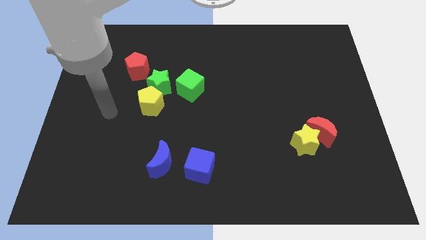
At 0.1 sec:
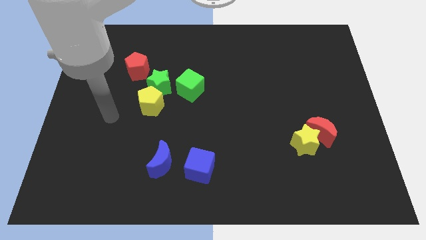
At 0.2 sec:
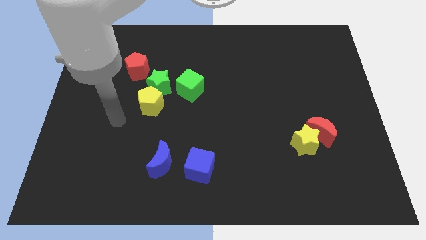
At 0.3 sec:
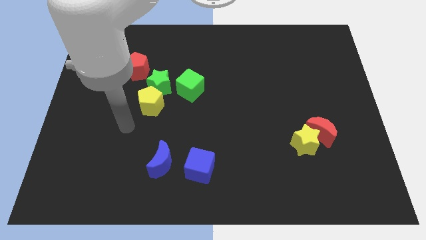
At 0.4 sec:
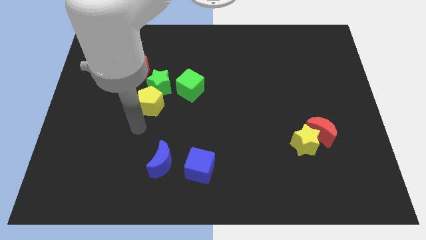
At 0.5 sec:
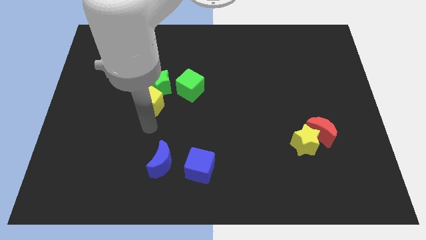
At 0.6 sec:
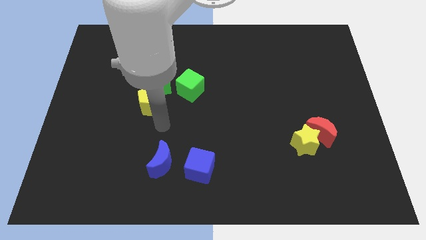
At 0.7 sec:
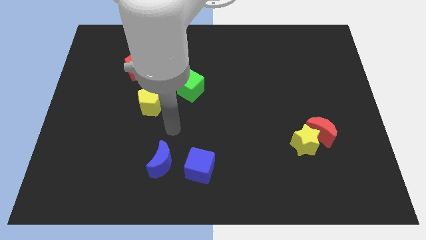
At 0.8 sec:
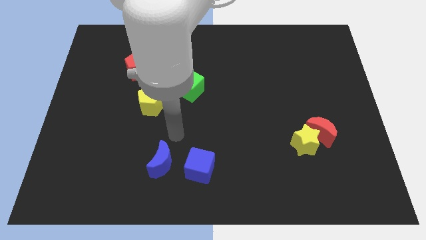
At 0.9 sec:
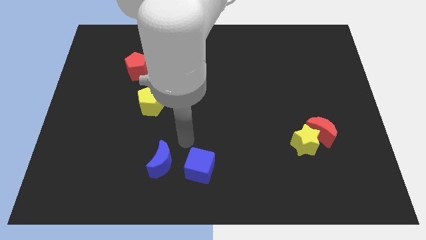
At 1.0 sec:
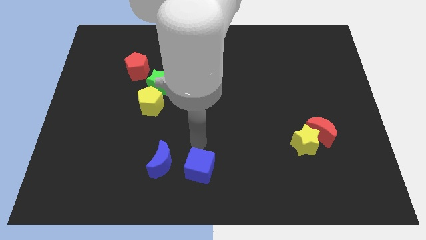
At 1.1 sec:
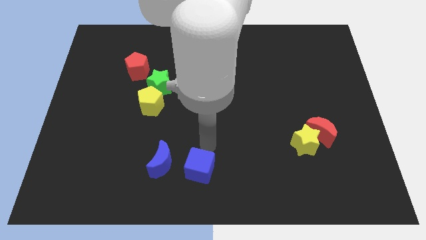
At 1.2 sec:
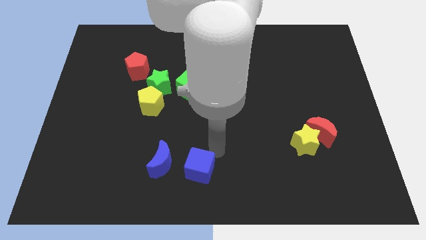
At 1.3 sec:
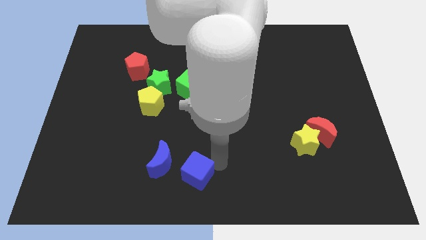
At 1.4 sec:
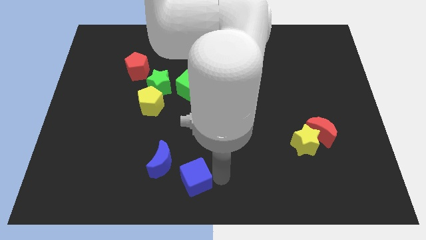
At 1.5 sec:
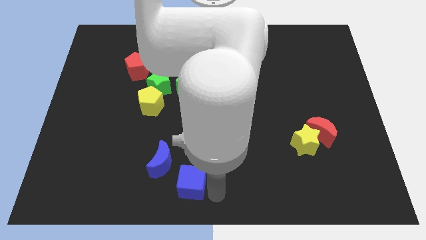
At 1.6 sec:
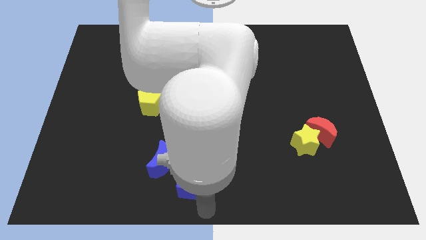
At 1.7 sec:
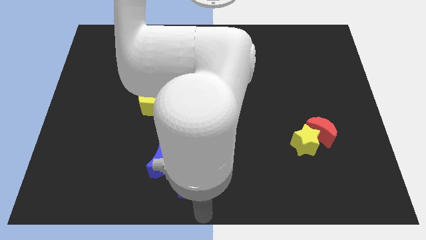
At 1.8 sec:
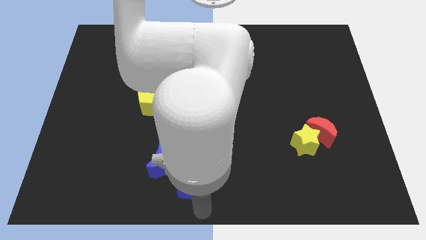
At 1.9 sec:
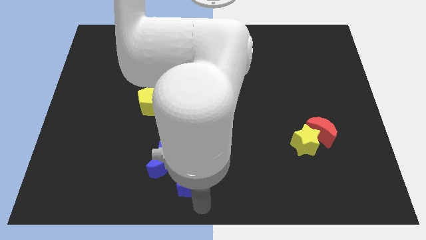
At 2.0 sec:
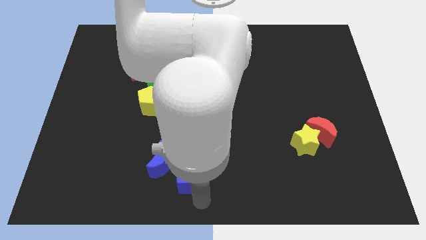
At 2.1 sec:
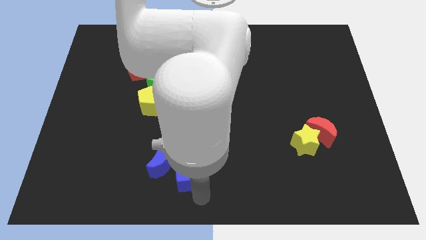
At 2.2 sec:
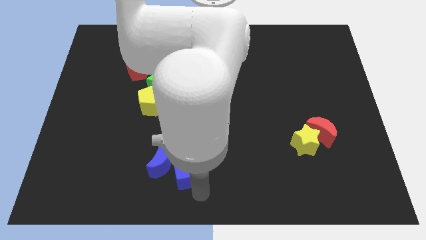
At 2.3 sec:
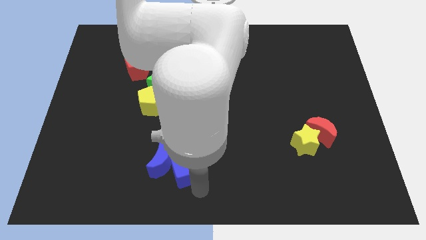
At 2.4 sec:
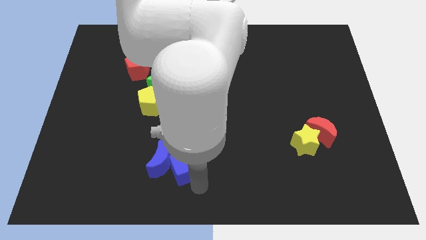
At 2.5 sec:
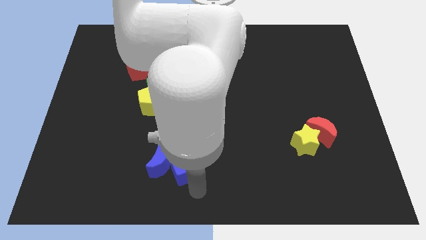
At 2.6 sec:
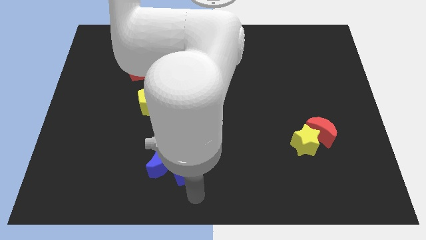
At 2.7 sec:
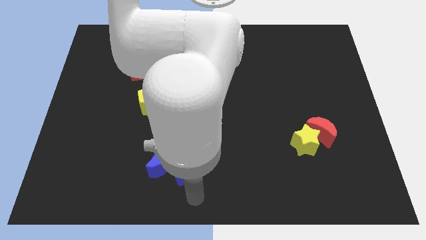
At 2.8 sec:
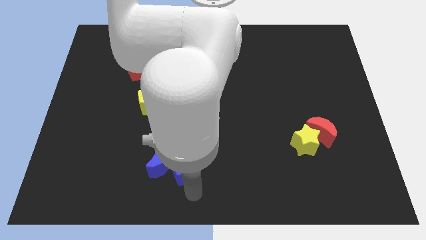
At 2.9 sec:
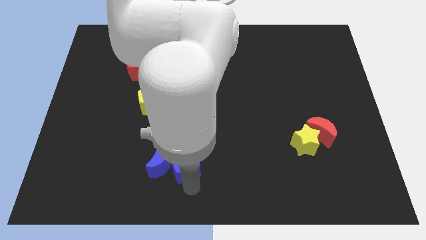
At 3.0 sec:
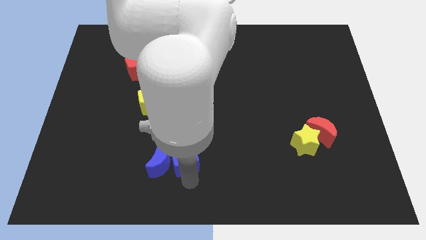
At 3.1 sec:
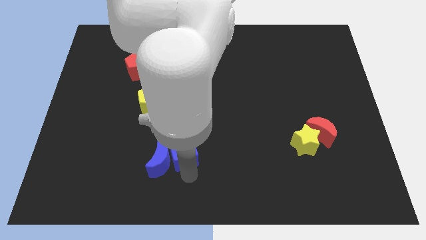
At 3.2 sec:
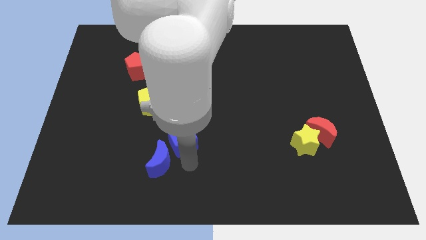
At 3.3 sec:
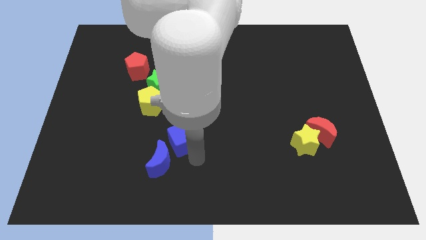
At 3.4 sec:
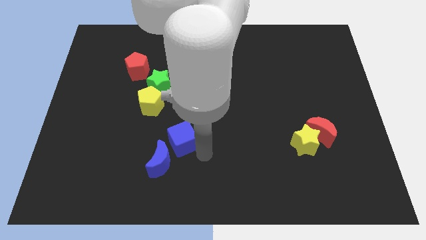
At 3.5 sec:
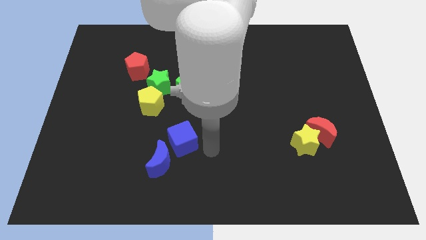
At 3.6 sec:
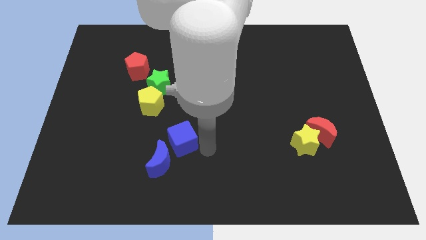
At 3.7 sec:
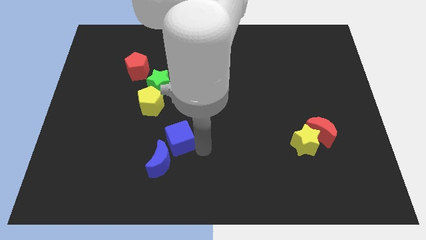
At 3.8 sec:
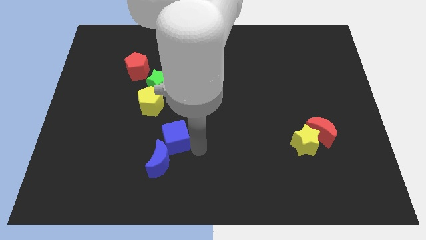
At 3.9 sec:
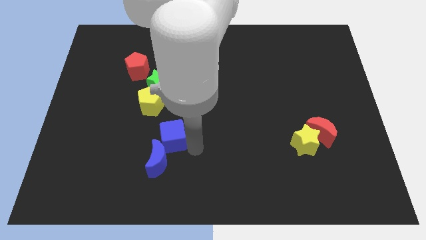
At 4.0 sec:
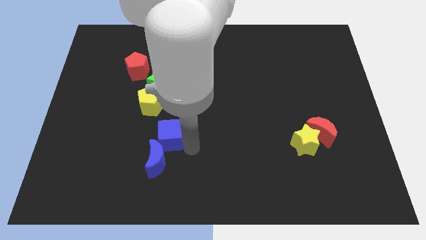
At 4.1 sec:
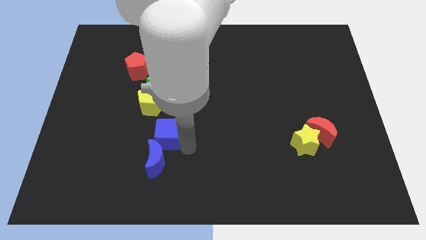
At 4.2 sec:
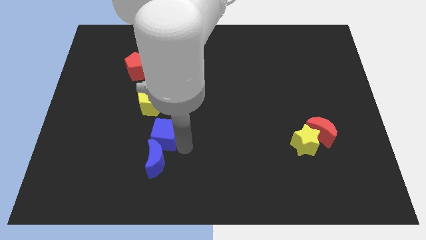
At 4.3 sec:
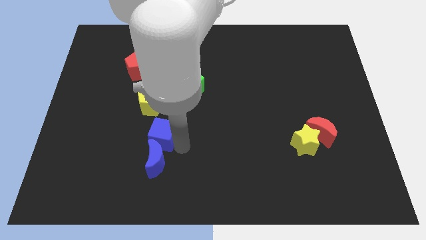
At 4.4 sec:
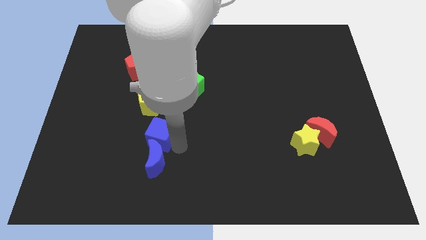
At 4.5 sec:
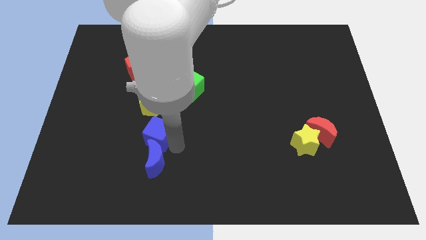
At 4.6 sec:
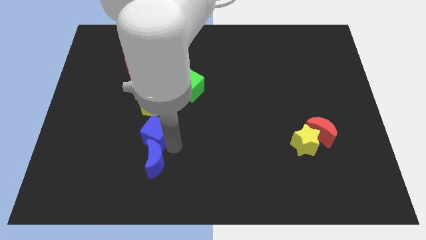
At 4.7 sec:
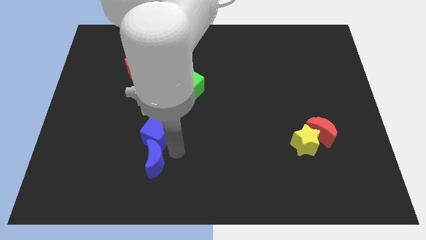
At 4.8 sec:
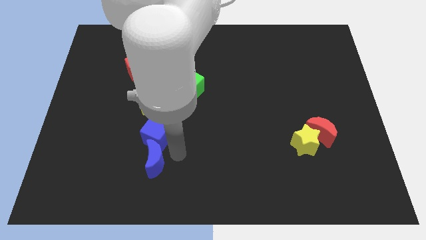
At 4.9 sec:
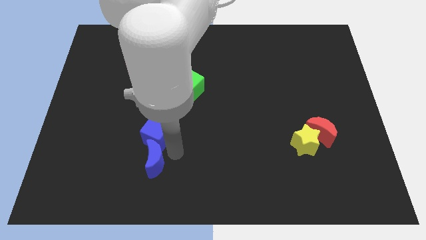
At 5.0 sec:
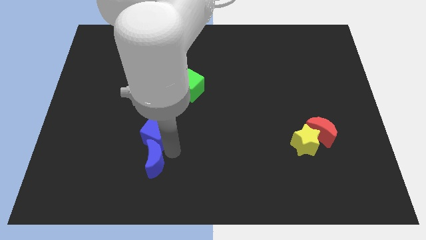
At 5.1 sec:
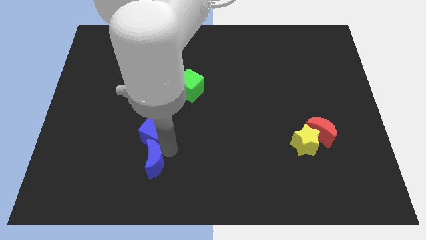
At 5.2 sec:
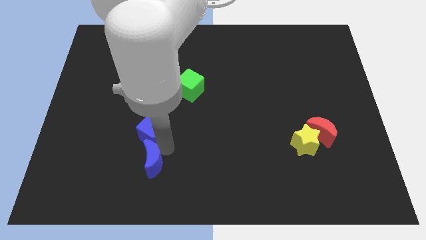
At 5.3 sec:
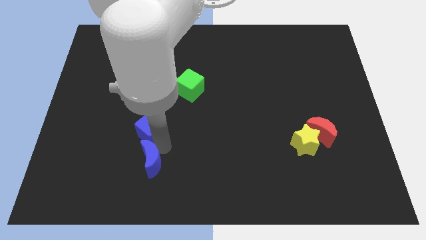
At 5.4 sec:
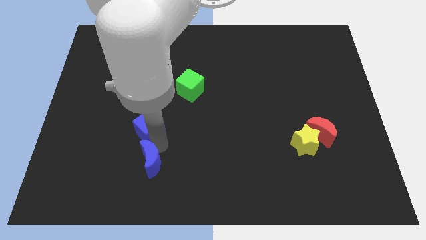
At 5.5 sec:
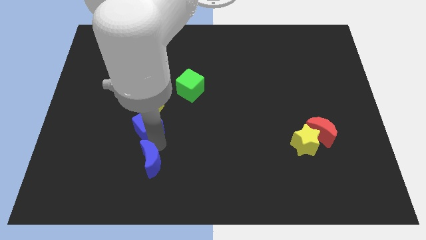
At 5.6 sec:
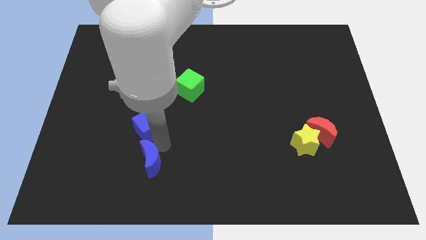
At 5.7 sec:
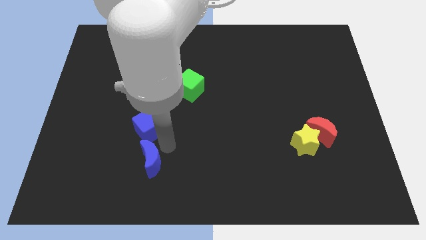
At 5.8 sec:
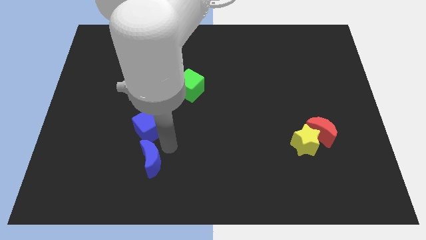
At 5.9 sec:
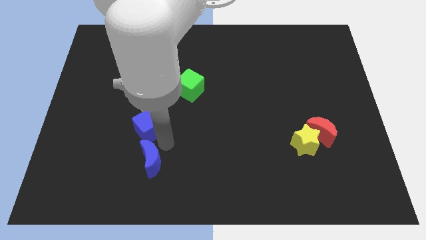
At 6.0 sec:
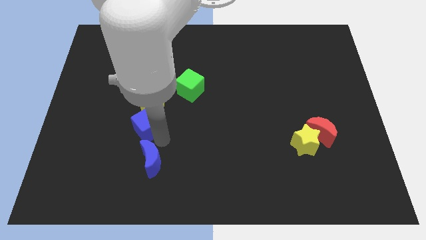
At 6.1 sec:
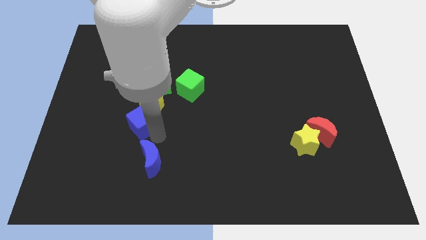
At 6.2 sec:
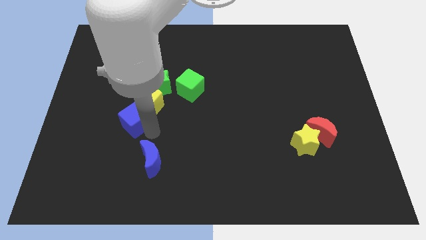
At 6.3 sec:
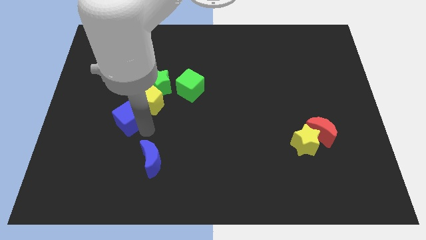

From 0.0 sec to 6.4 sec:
move the blue cube diagonally upwards and to the left

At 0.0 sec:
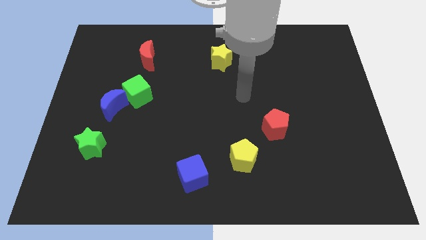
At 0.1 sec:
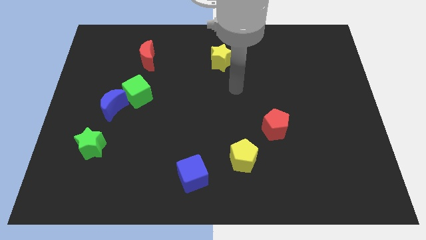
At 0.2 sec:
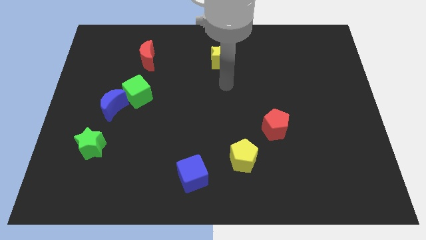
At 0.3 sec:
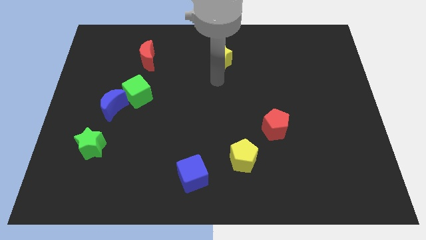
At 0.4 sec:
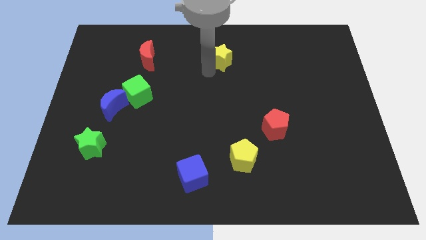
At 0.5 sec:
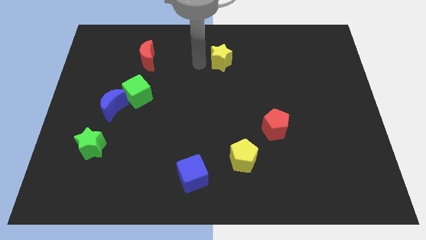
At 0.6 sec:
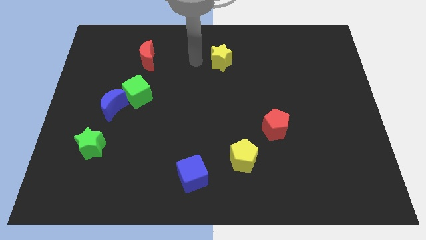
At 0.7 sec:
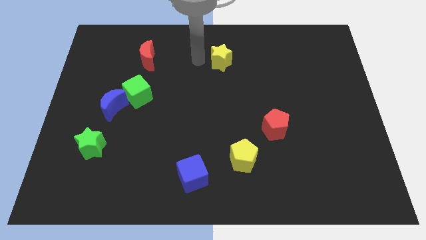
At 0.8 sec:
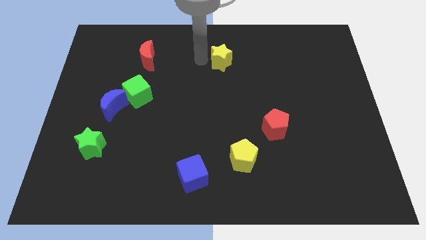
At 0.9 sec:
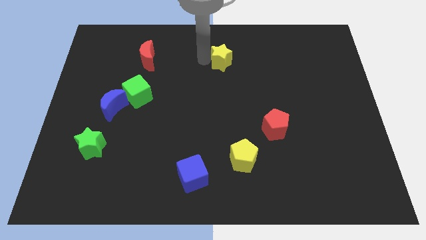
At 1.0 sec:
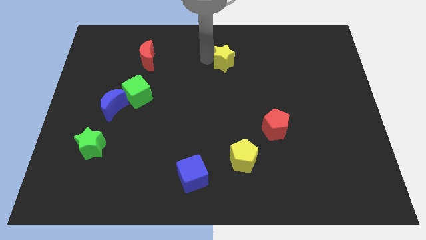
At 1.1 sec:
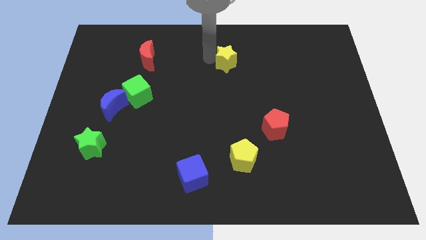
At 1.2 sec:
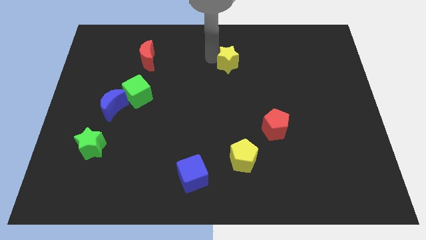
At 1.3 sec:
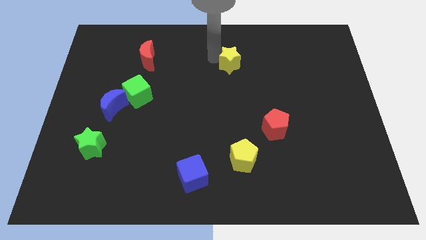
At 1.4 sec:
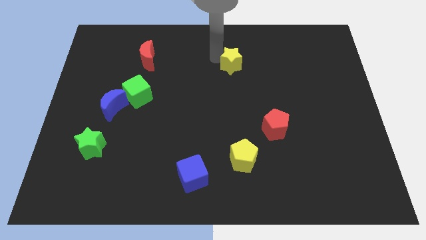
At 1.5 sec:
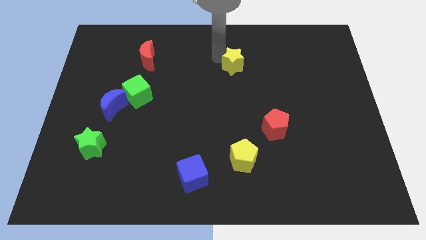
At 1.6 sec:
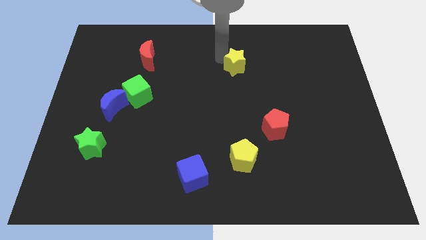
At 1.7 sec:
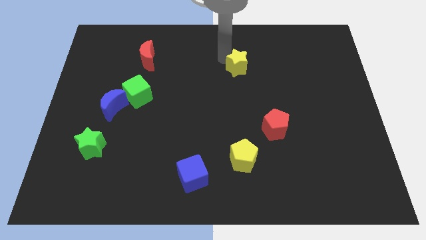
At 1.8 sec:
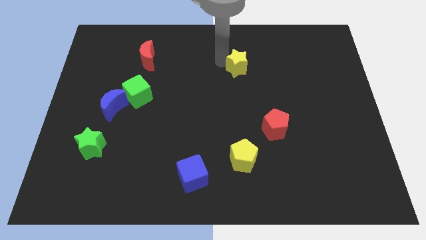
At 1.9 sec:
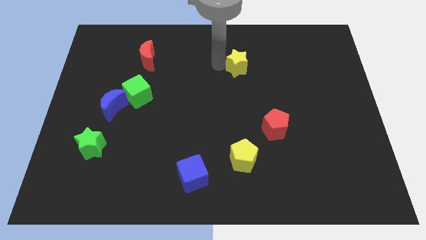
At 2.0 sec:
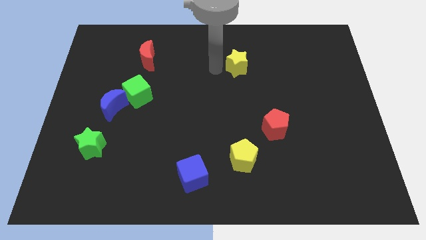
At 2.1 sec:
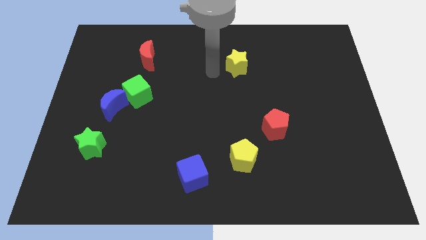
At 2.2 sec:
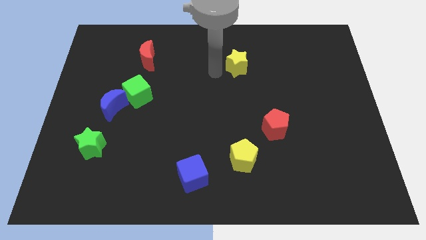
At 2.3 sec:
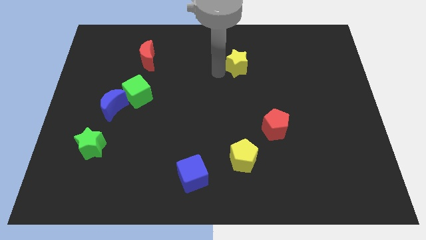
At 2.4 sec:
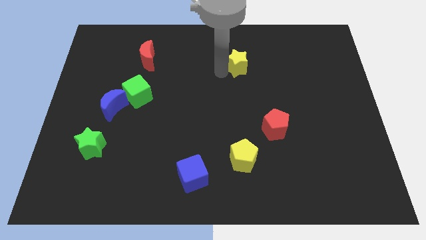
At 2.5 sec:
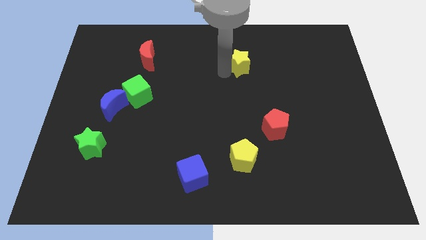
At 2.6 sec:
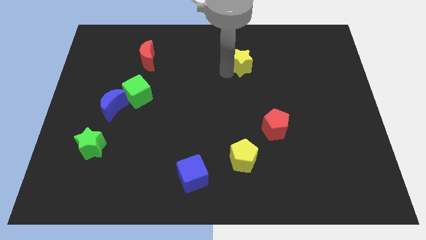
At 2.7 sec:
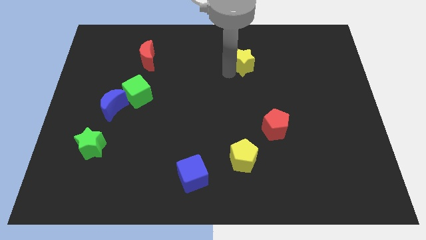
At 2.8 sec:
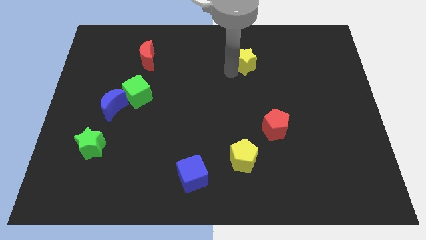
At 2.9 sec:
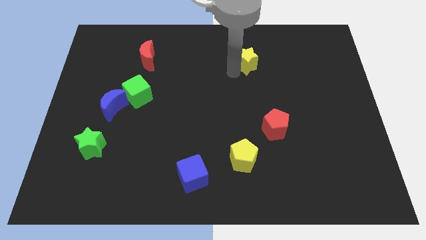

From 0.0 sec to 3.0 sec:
push the yellow star somewhat right
